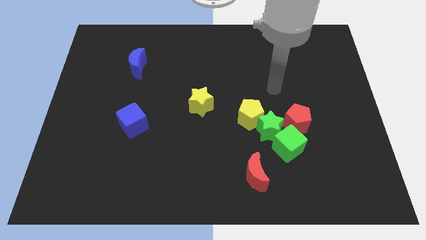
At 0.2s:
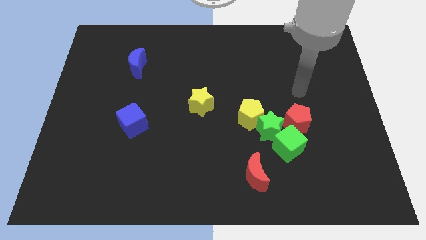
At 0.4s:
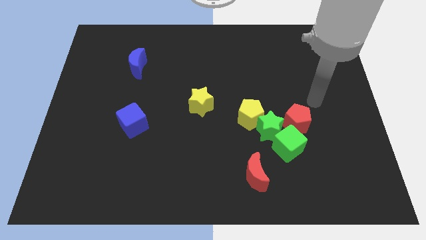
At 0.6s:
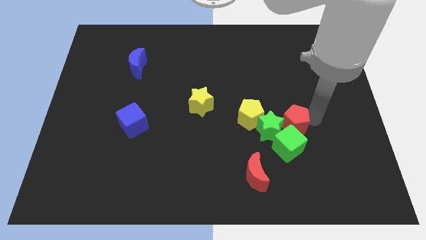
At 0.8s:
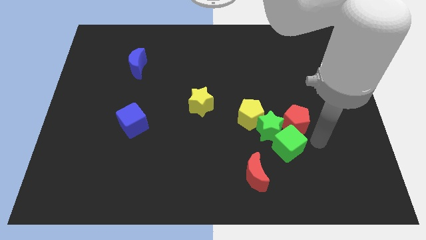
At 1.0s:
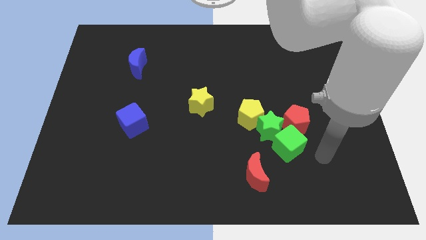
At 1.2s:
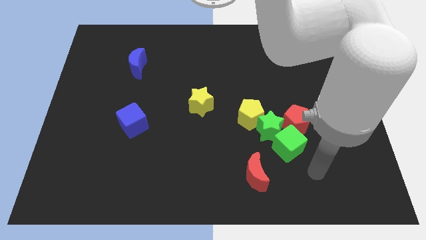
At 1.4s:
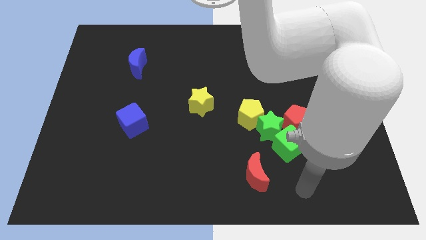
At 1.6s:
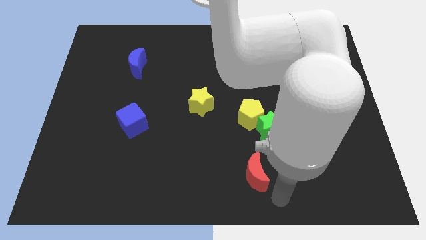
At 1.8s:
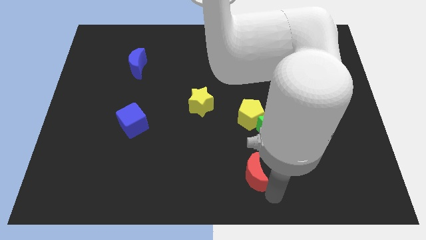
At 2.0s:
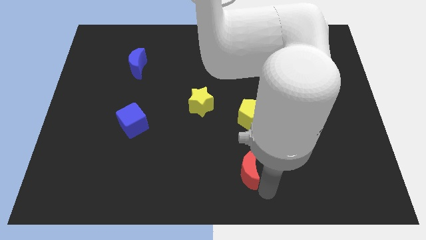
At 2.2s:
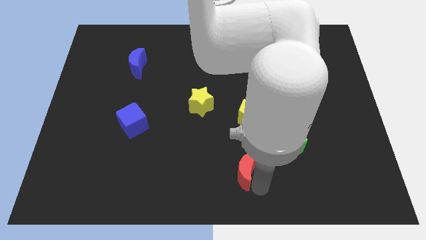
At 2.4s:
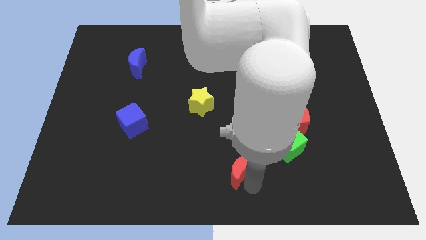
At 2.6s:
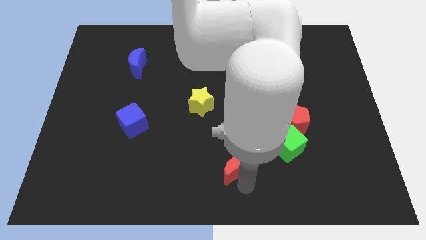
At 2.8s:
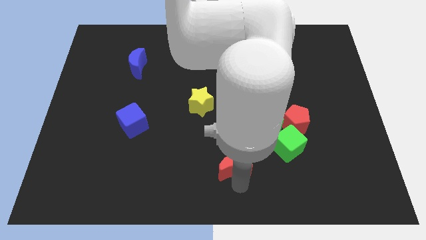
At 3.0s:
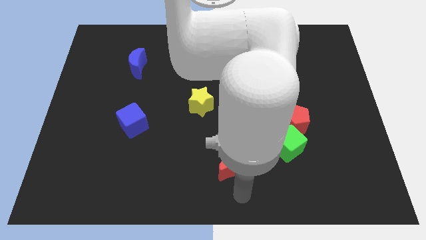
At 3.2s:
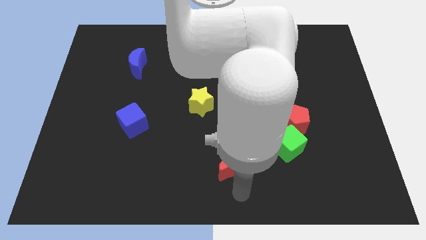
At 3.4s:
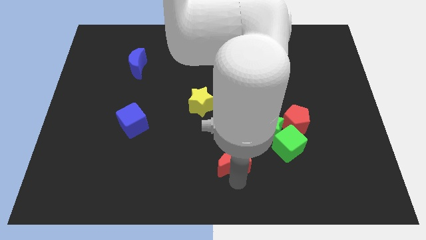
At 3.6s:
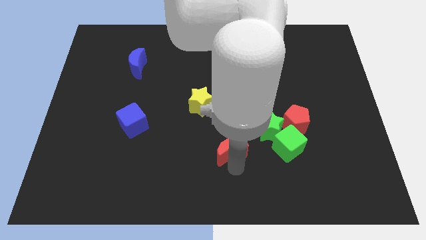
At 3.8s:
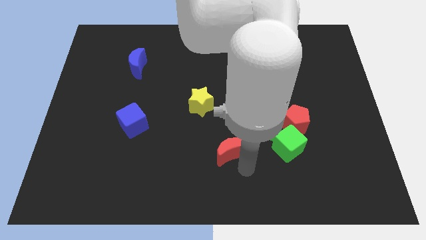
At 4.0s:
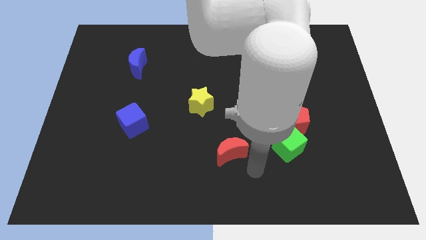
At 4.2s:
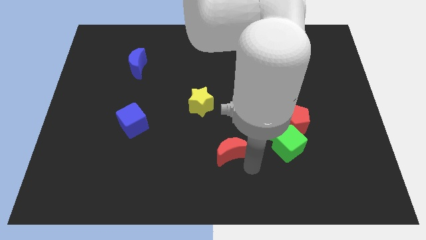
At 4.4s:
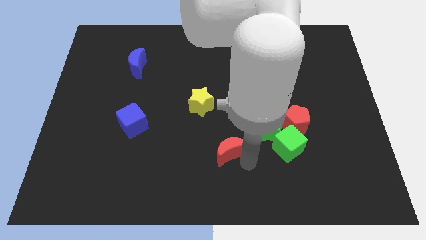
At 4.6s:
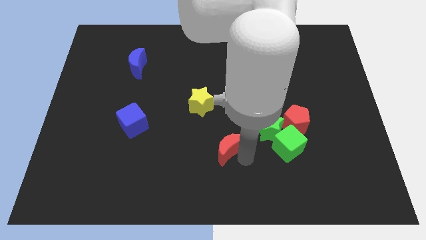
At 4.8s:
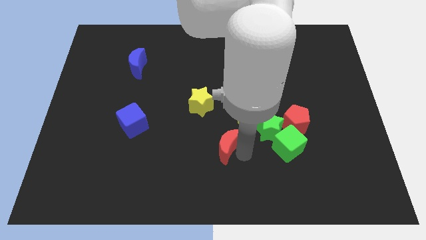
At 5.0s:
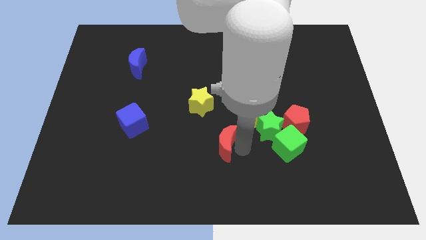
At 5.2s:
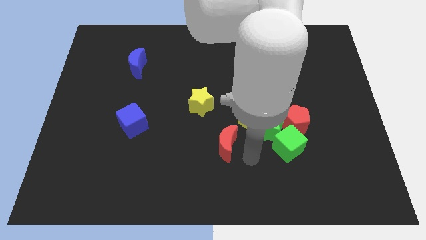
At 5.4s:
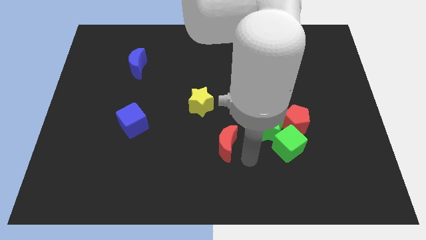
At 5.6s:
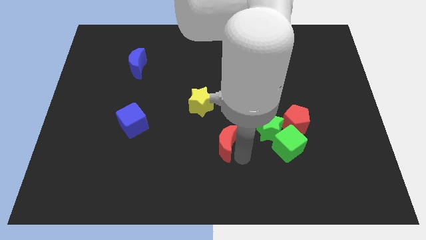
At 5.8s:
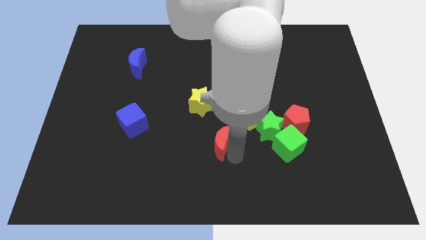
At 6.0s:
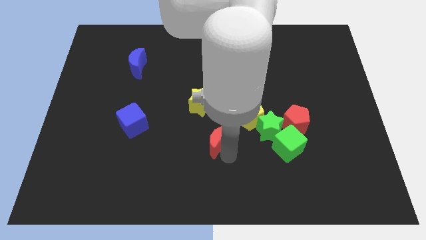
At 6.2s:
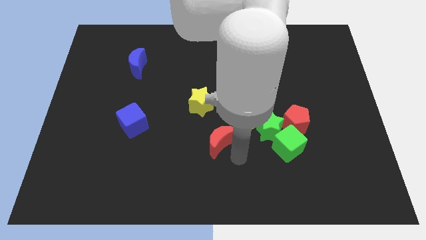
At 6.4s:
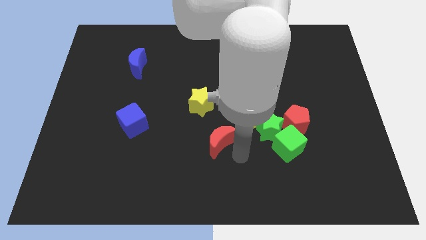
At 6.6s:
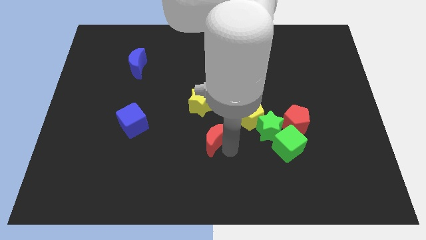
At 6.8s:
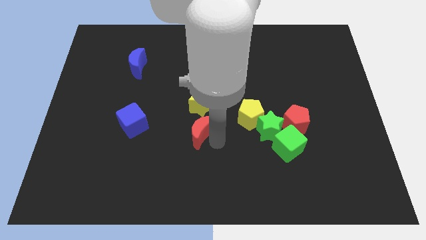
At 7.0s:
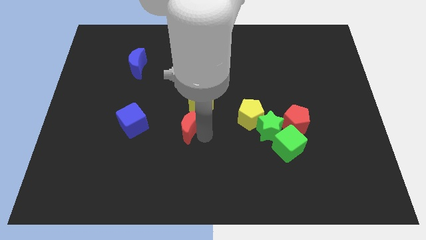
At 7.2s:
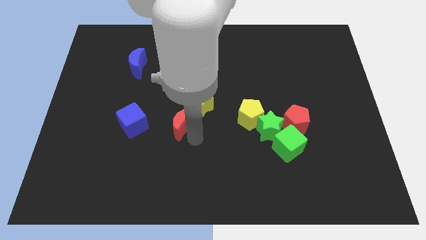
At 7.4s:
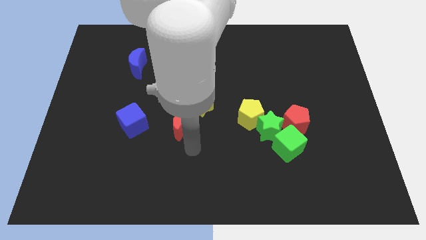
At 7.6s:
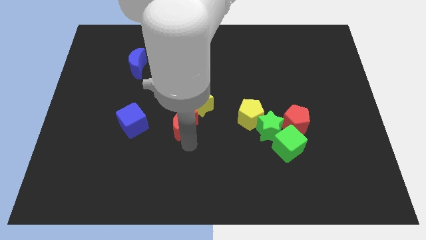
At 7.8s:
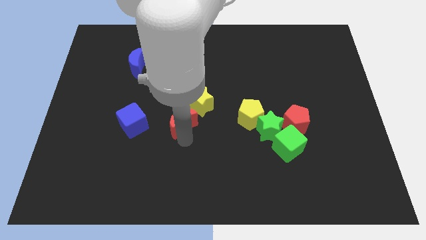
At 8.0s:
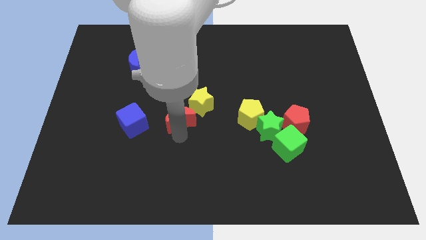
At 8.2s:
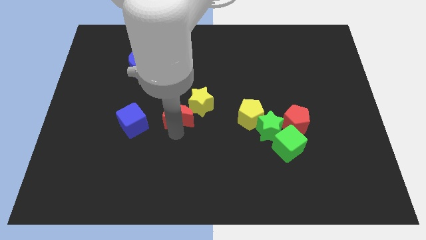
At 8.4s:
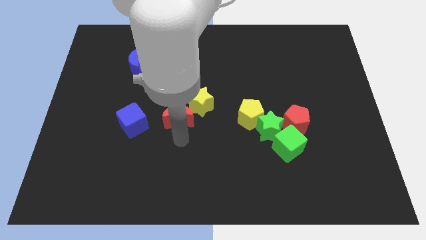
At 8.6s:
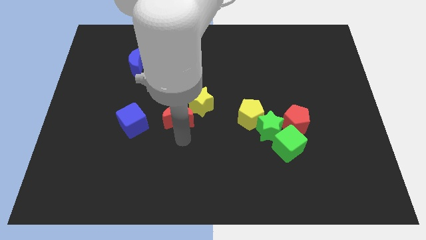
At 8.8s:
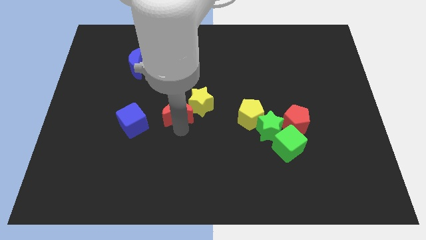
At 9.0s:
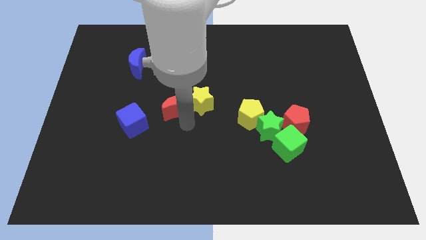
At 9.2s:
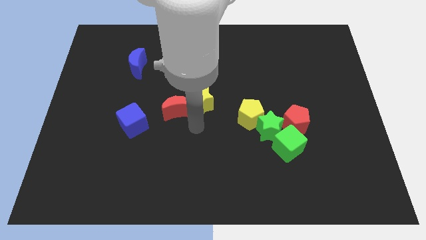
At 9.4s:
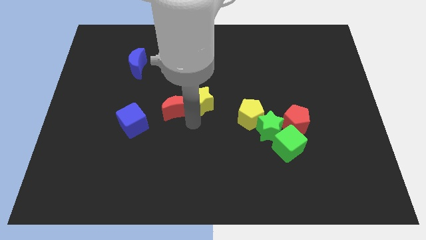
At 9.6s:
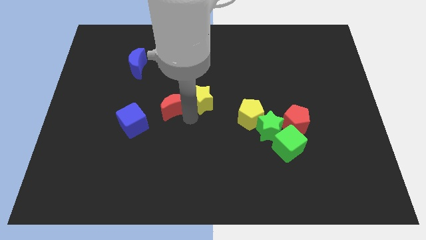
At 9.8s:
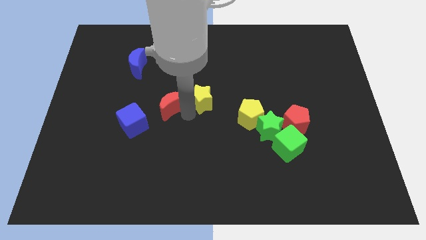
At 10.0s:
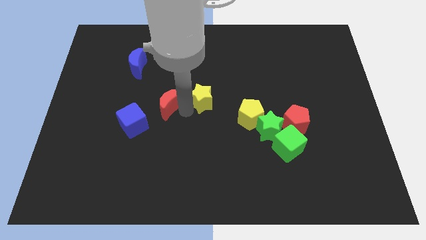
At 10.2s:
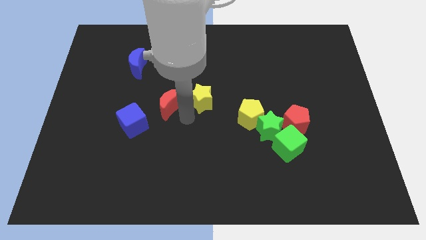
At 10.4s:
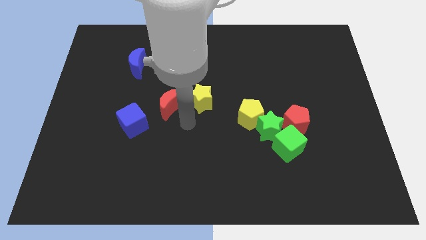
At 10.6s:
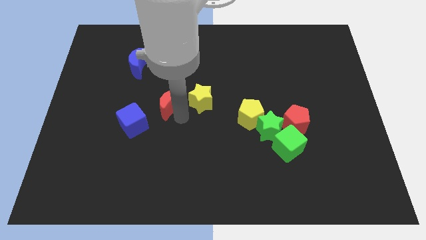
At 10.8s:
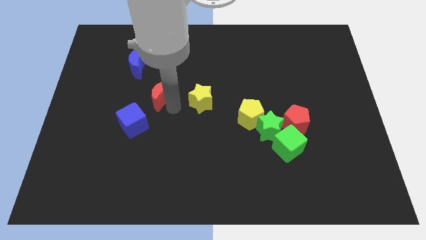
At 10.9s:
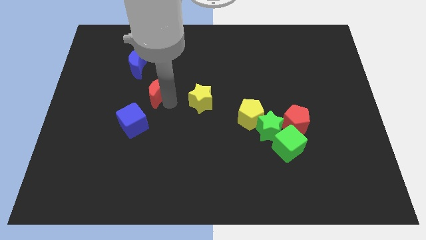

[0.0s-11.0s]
move the red moon to the top of the blue cube

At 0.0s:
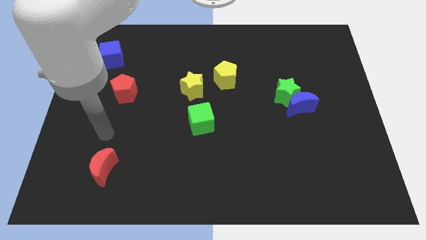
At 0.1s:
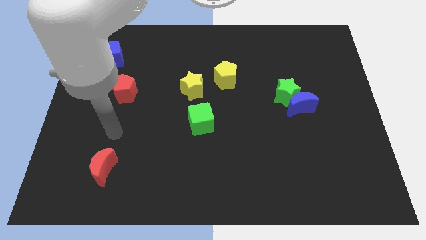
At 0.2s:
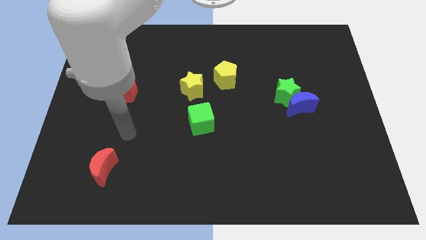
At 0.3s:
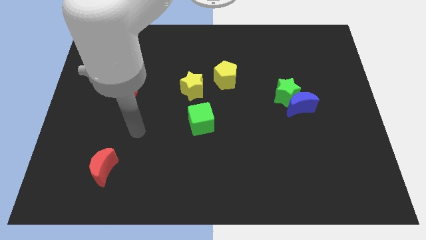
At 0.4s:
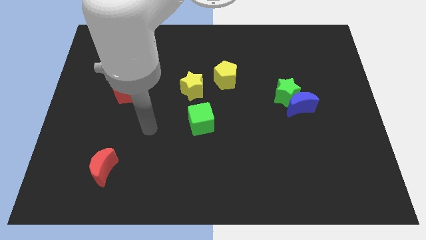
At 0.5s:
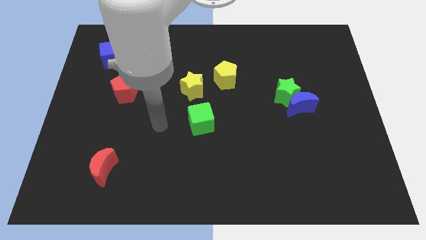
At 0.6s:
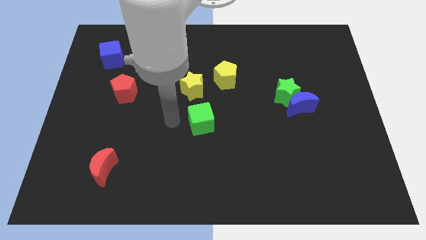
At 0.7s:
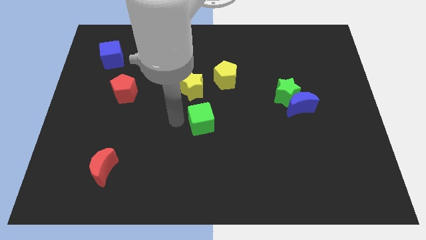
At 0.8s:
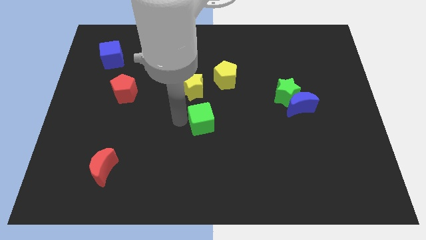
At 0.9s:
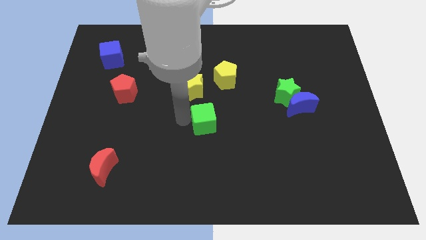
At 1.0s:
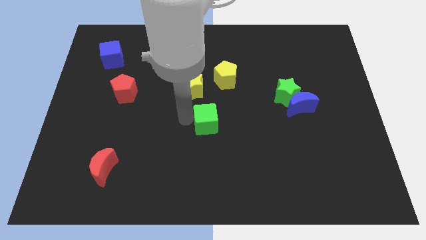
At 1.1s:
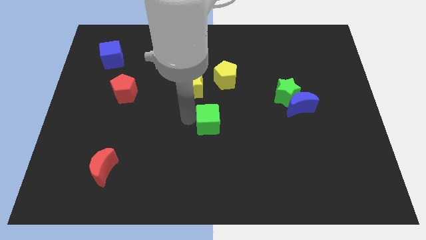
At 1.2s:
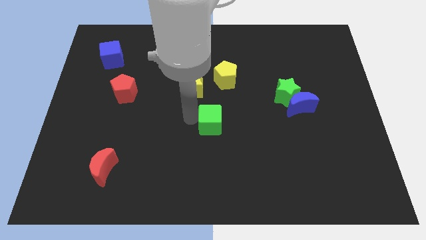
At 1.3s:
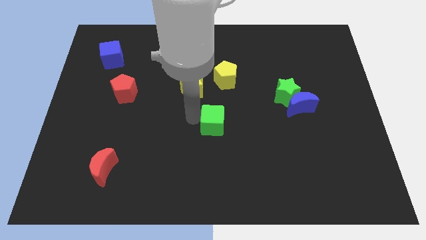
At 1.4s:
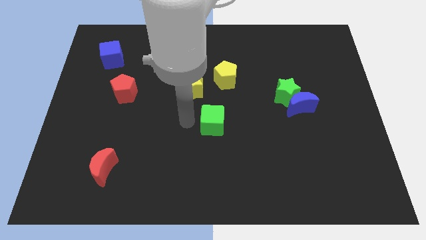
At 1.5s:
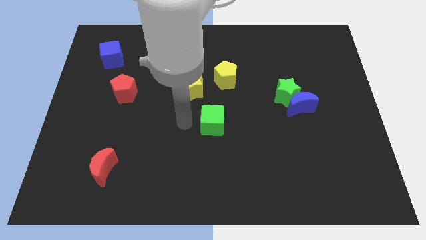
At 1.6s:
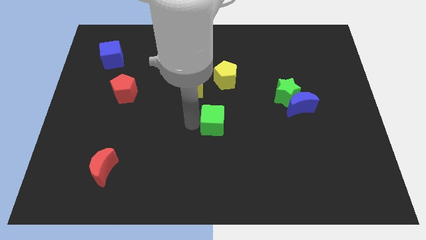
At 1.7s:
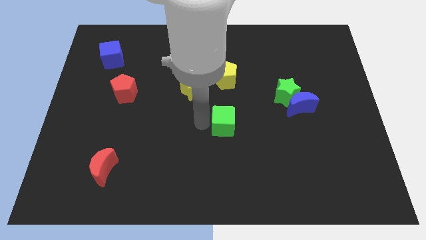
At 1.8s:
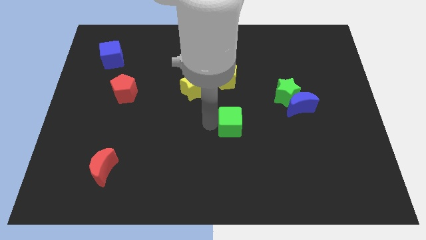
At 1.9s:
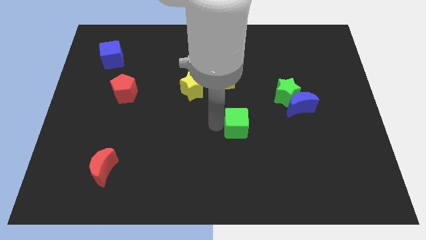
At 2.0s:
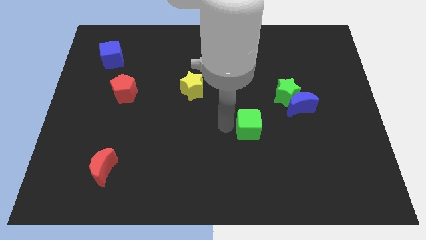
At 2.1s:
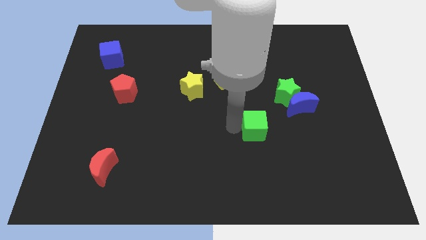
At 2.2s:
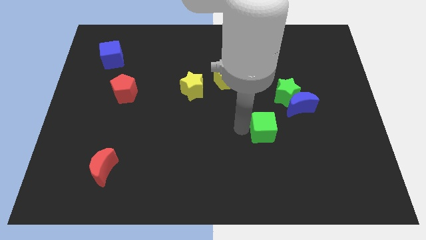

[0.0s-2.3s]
push the green cube to the bottom left of the blue moon
